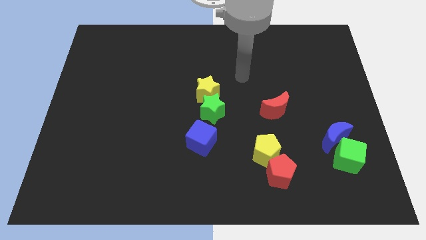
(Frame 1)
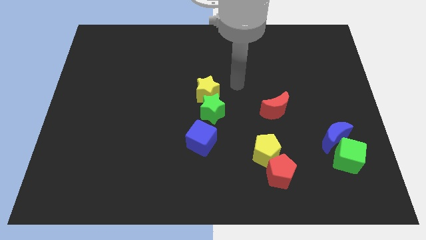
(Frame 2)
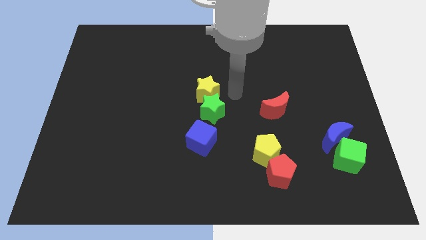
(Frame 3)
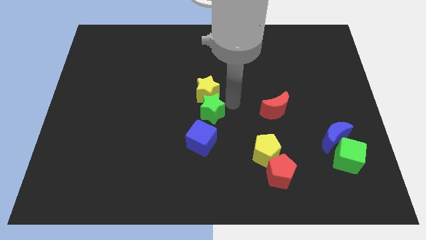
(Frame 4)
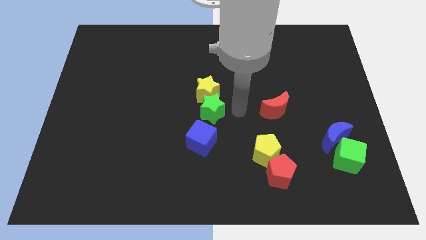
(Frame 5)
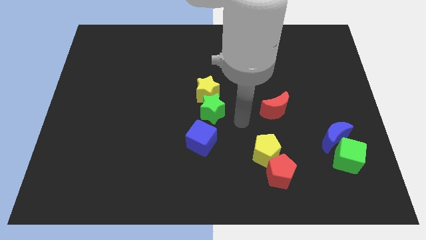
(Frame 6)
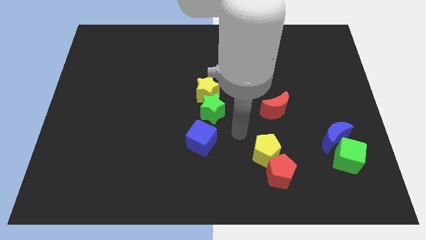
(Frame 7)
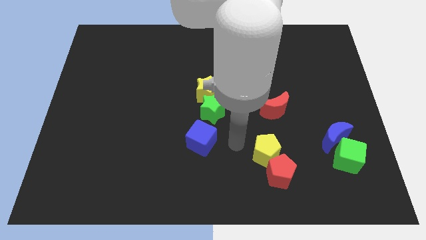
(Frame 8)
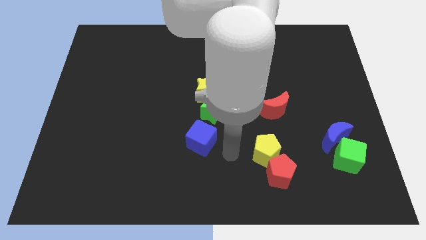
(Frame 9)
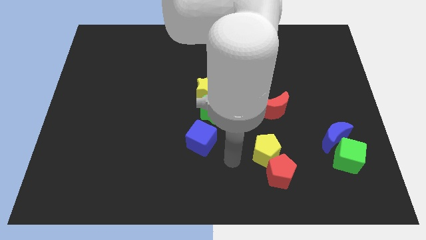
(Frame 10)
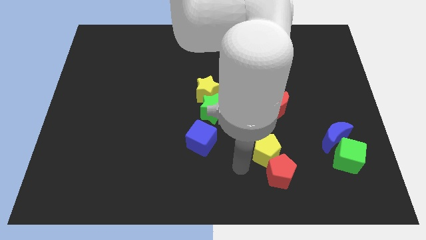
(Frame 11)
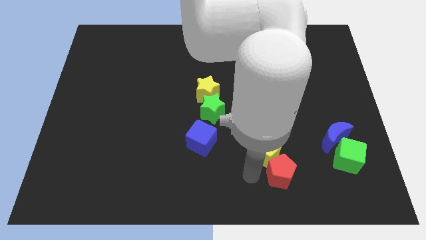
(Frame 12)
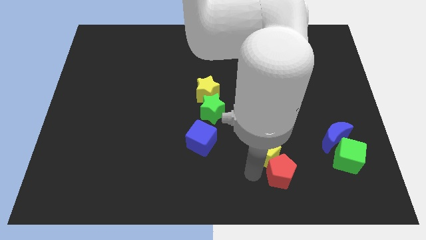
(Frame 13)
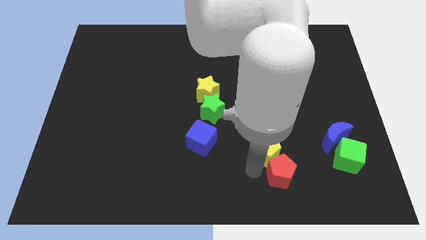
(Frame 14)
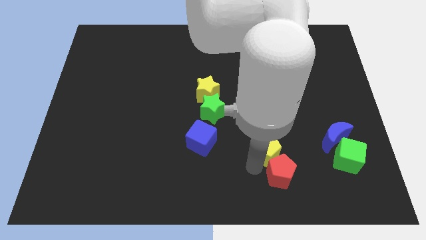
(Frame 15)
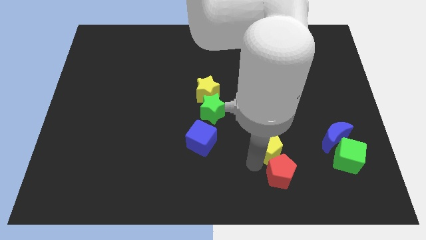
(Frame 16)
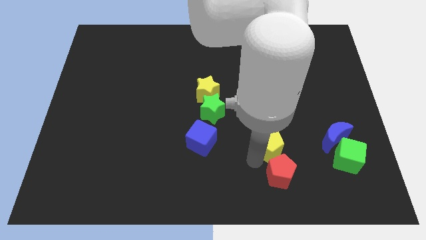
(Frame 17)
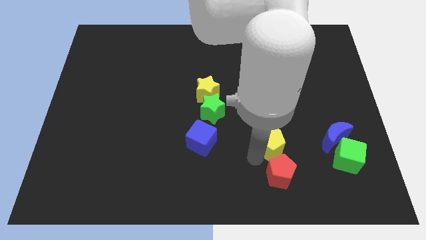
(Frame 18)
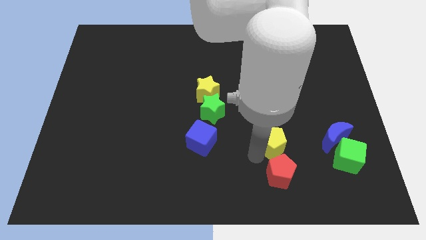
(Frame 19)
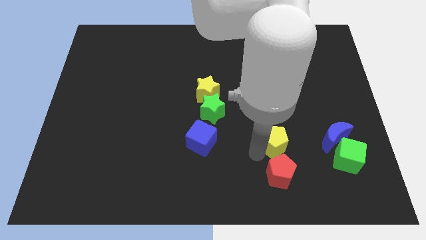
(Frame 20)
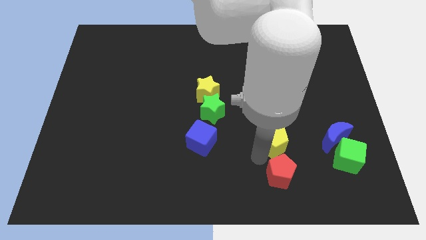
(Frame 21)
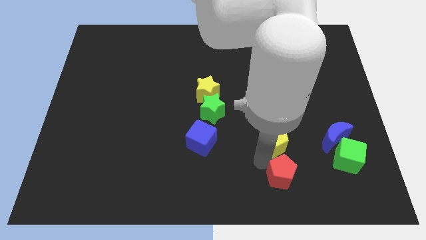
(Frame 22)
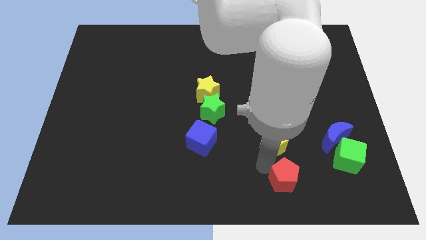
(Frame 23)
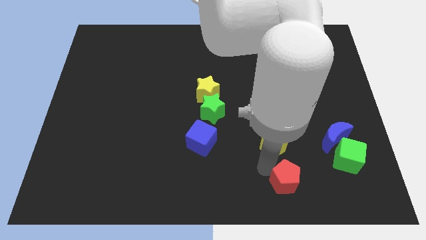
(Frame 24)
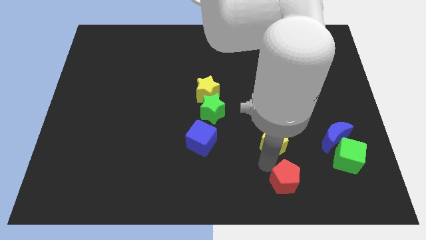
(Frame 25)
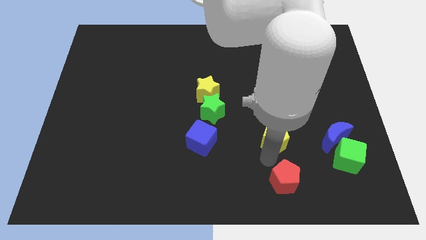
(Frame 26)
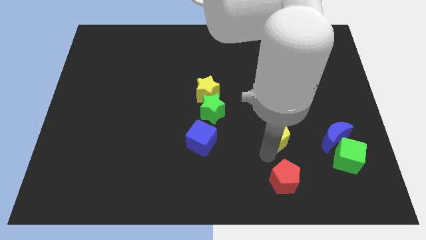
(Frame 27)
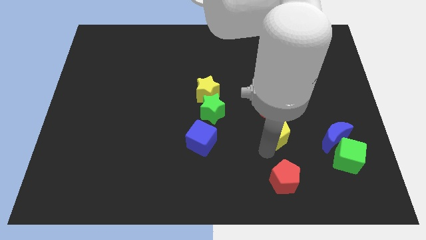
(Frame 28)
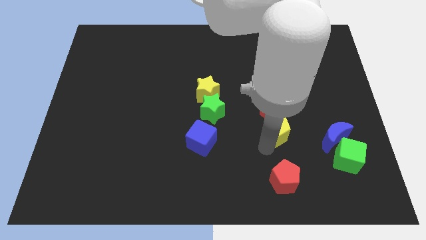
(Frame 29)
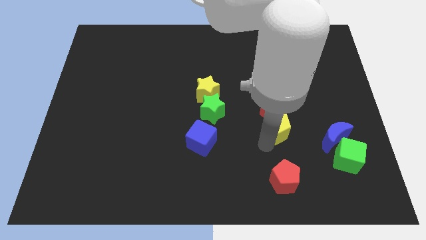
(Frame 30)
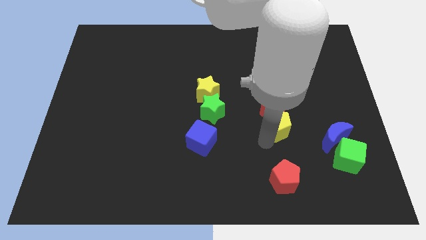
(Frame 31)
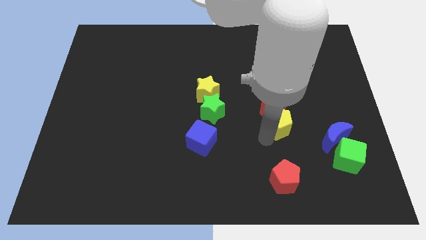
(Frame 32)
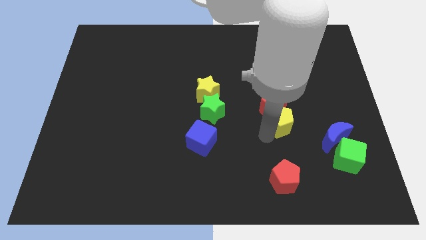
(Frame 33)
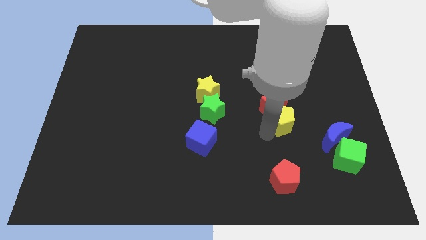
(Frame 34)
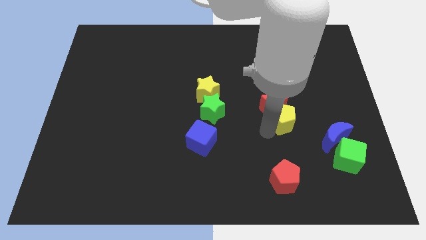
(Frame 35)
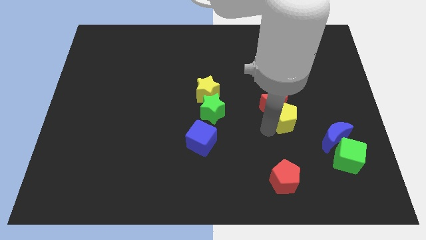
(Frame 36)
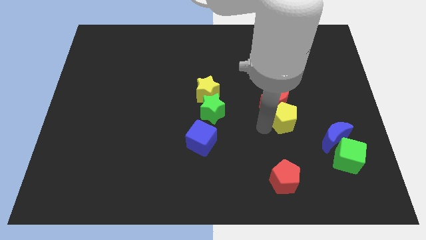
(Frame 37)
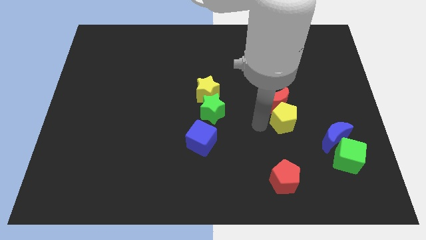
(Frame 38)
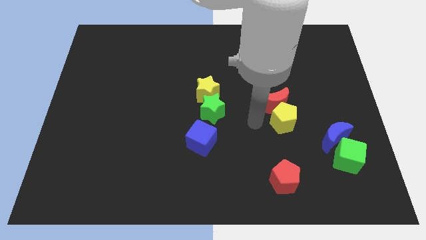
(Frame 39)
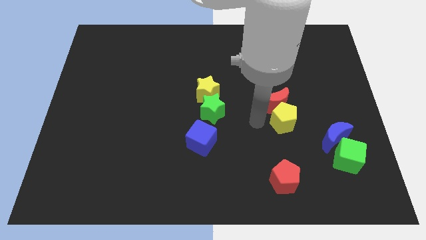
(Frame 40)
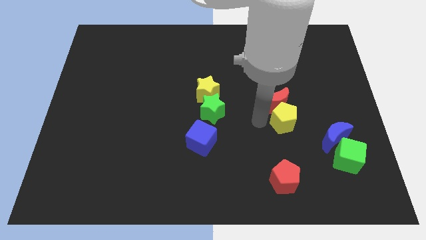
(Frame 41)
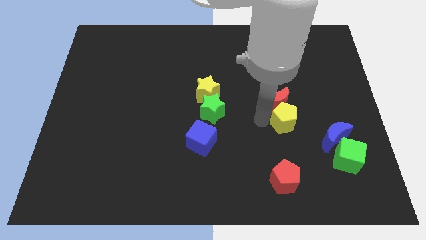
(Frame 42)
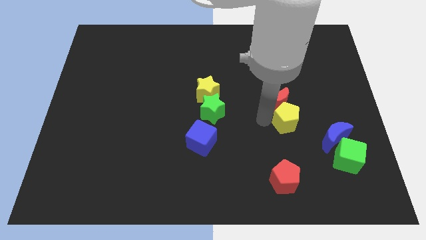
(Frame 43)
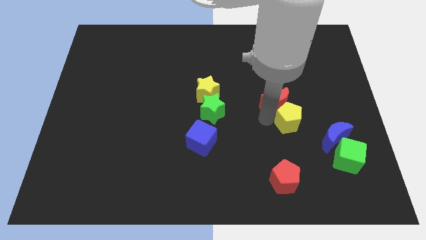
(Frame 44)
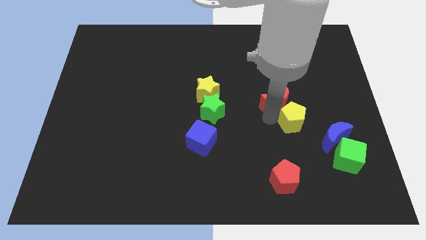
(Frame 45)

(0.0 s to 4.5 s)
move the yellow pentagon to the right of the red moon

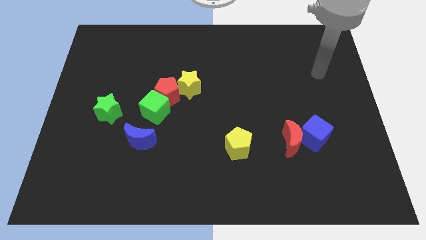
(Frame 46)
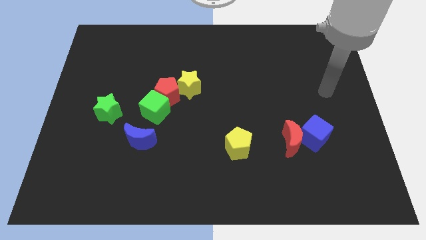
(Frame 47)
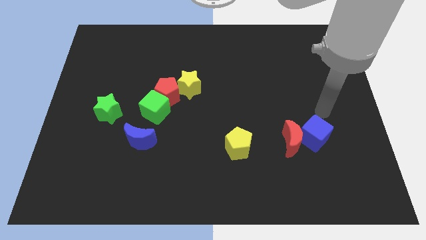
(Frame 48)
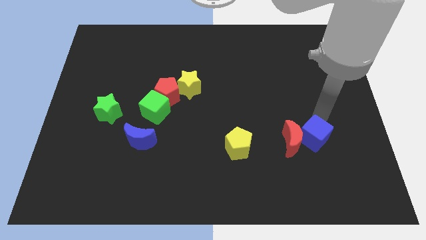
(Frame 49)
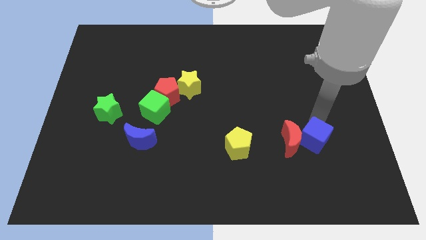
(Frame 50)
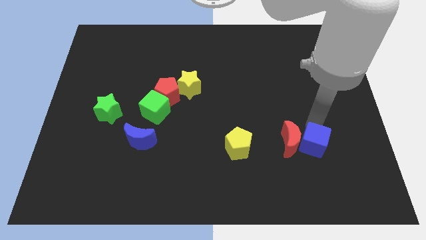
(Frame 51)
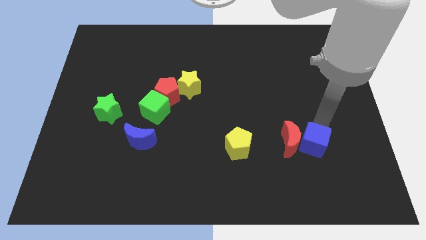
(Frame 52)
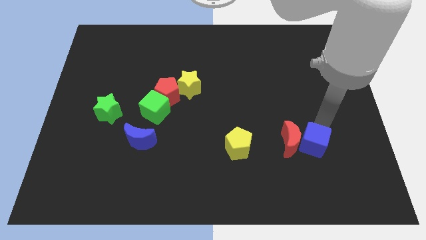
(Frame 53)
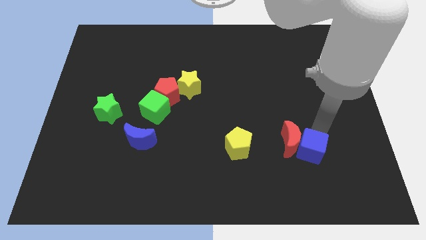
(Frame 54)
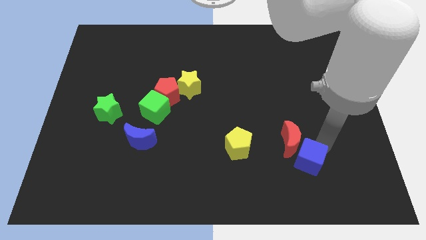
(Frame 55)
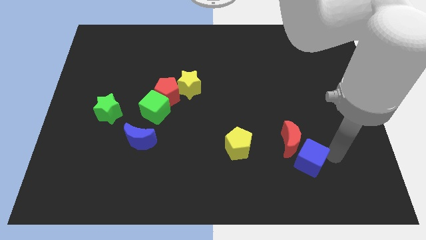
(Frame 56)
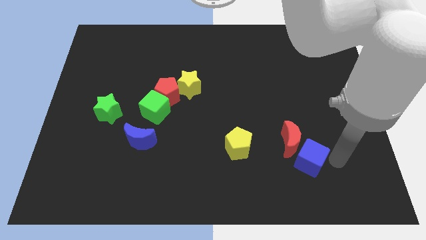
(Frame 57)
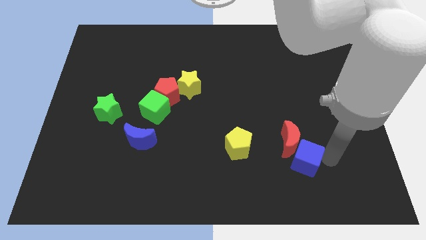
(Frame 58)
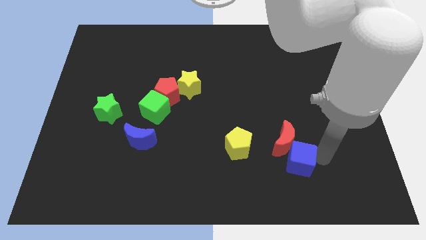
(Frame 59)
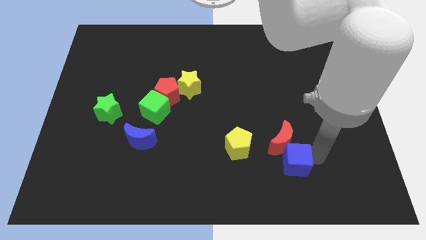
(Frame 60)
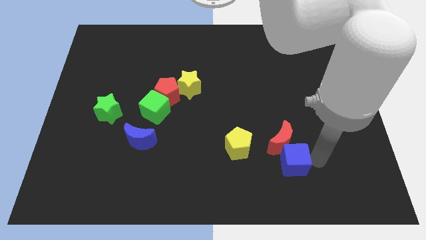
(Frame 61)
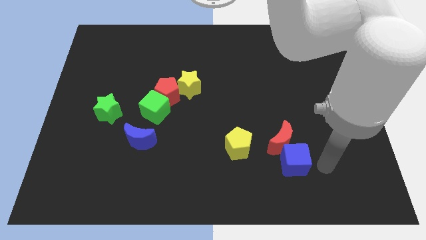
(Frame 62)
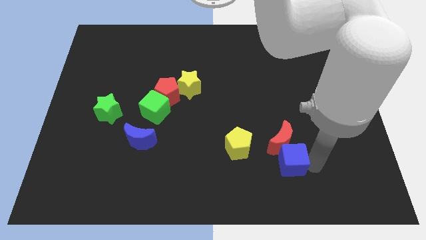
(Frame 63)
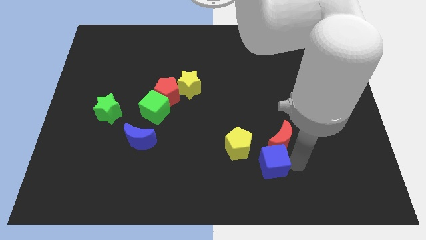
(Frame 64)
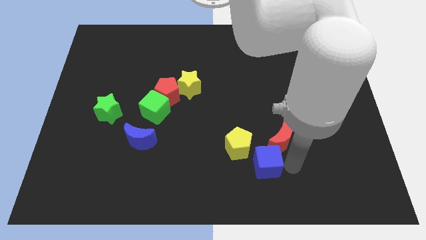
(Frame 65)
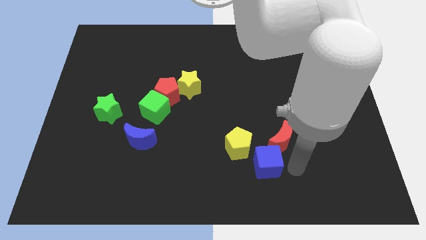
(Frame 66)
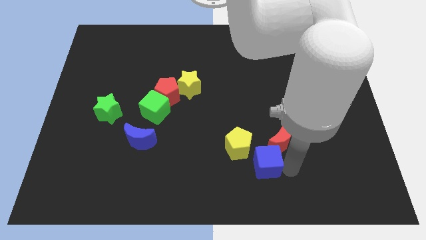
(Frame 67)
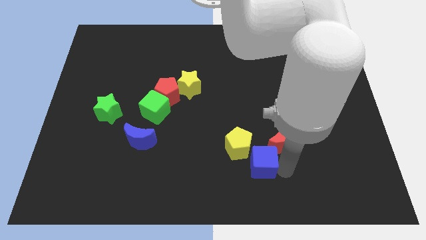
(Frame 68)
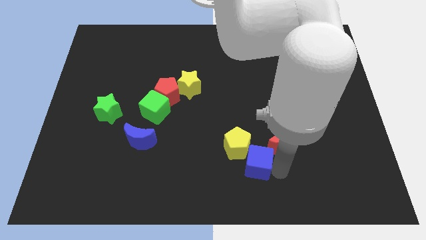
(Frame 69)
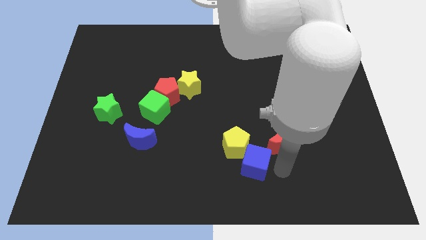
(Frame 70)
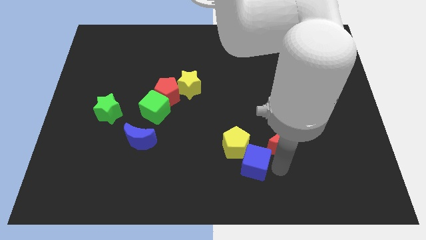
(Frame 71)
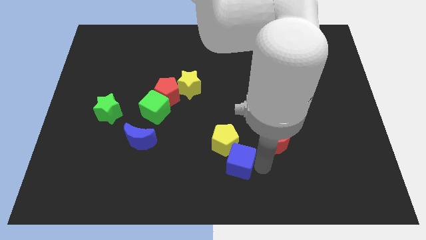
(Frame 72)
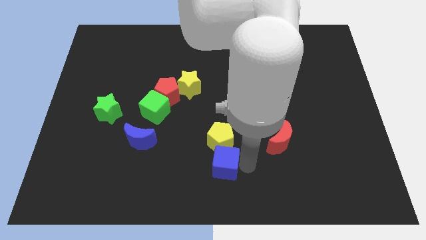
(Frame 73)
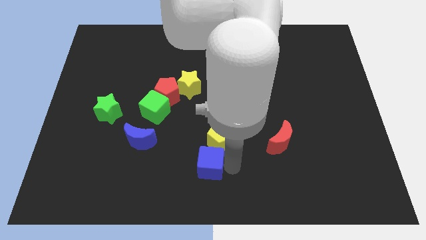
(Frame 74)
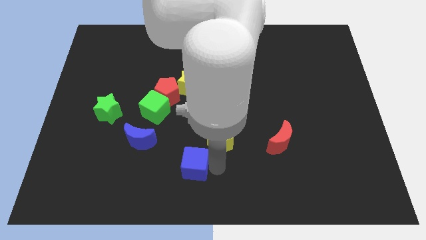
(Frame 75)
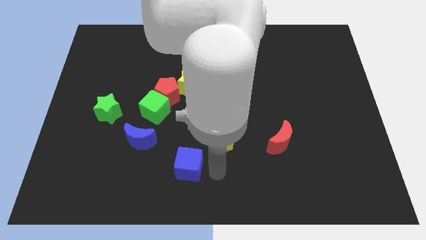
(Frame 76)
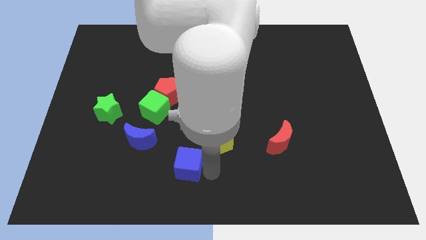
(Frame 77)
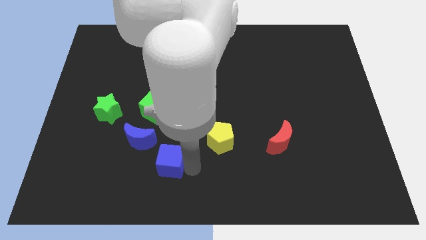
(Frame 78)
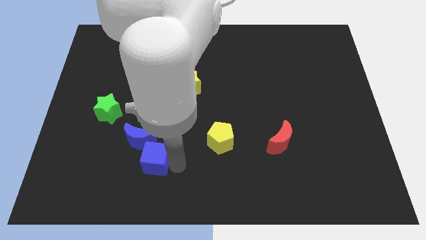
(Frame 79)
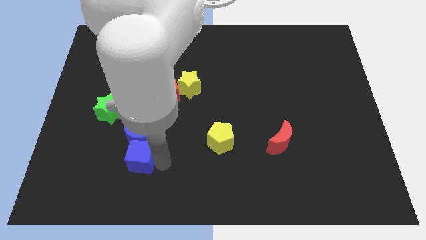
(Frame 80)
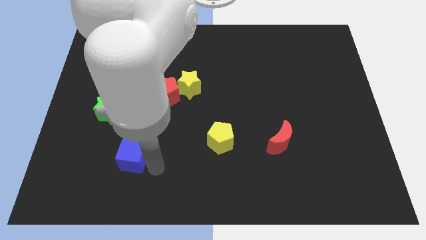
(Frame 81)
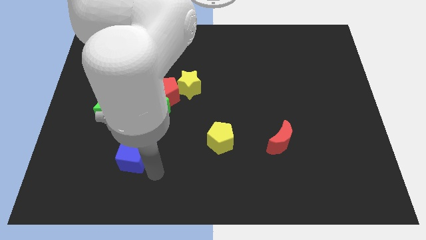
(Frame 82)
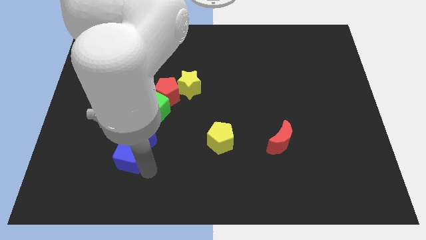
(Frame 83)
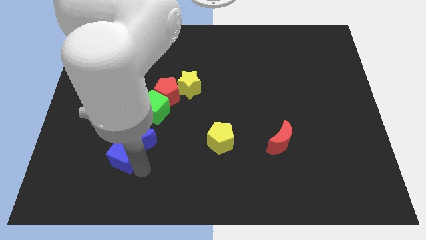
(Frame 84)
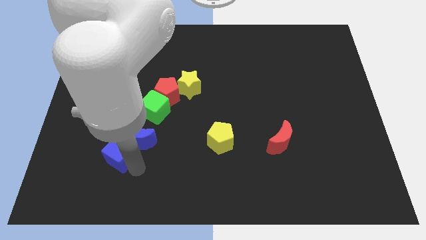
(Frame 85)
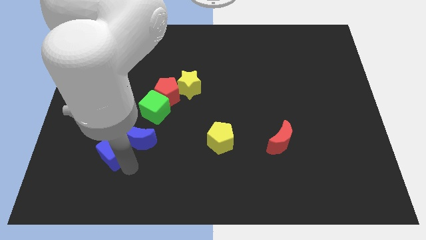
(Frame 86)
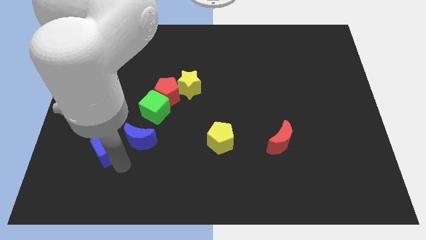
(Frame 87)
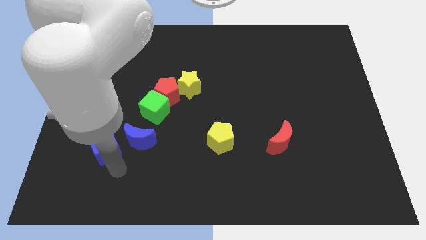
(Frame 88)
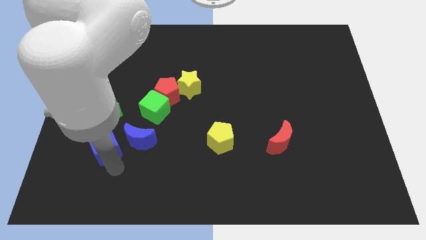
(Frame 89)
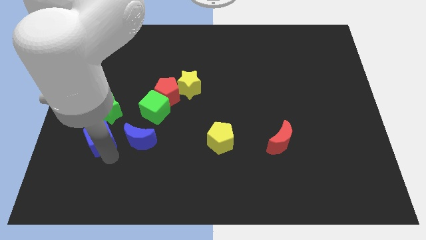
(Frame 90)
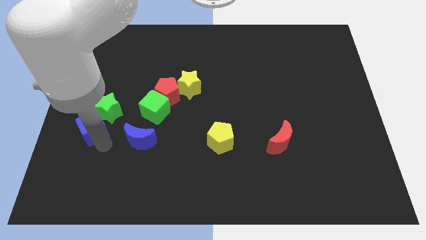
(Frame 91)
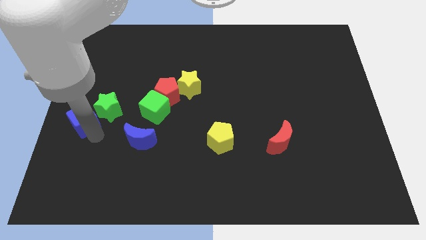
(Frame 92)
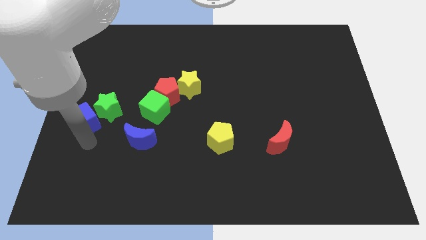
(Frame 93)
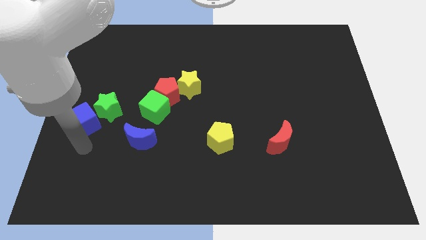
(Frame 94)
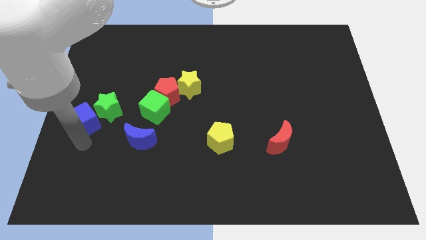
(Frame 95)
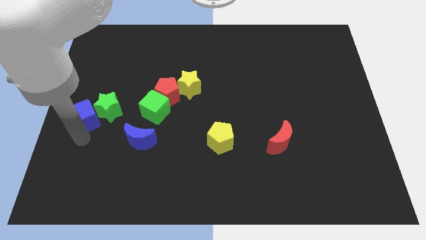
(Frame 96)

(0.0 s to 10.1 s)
slide the blue cube to the left of the green cube
